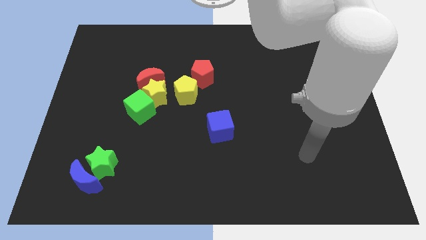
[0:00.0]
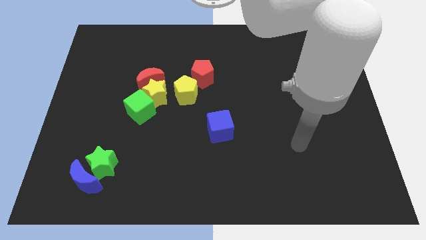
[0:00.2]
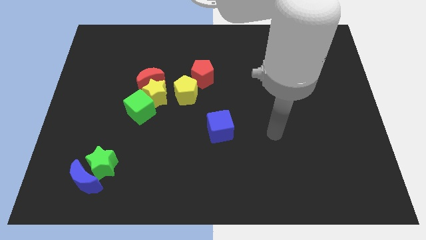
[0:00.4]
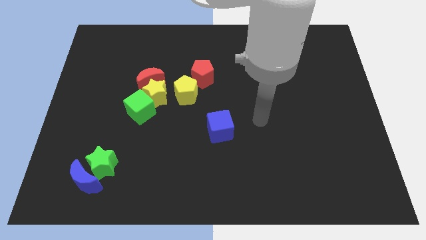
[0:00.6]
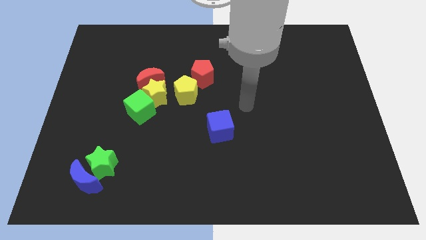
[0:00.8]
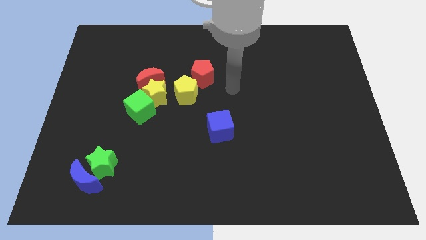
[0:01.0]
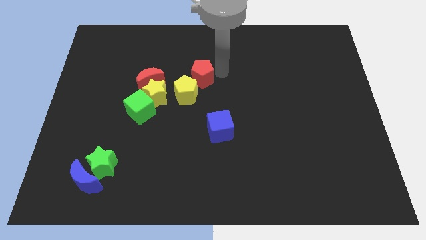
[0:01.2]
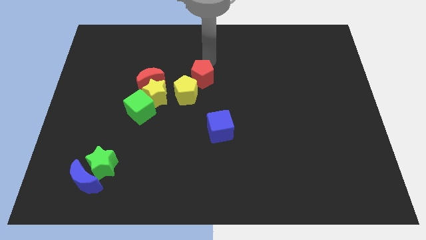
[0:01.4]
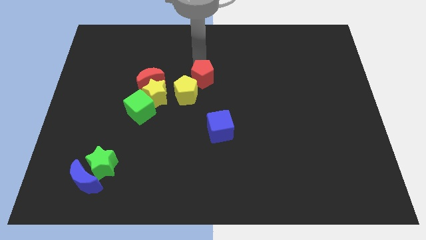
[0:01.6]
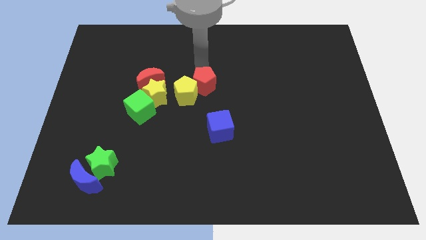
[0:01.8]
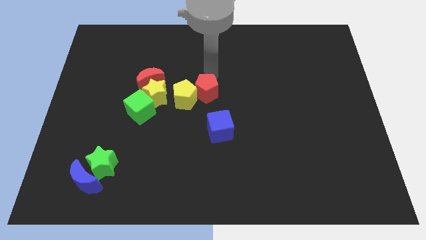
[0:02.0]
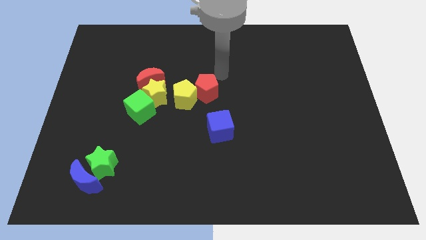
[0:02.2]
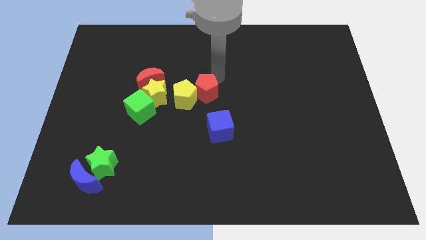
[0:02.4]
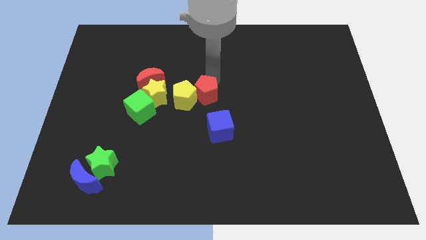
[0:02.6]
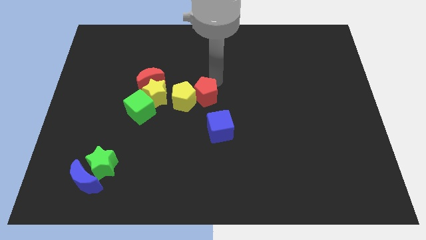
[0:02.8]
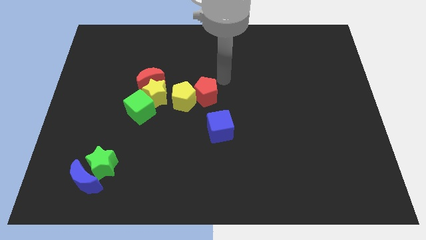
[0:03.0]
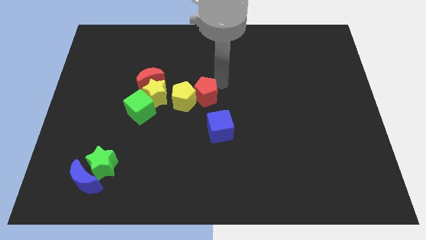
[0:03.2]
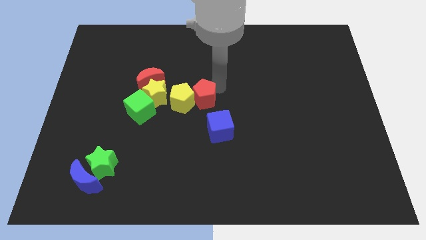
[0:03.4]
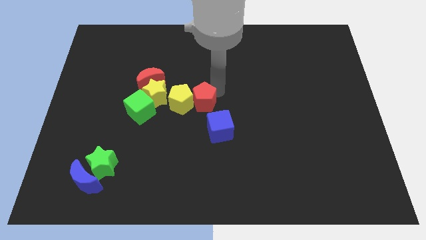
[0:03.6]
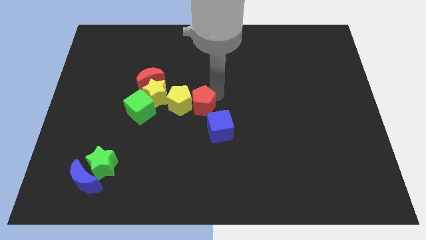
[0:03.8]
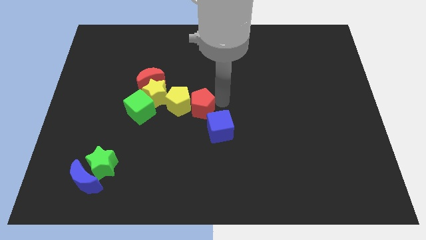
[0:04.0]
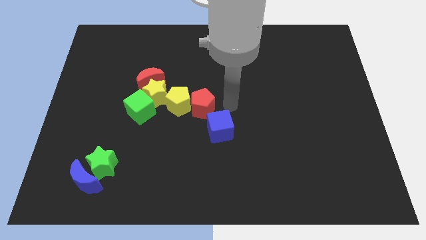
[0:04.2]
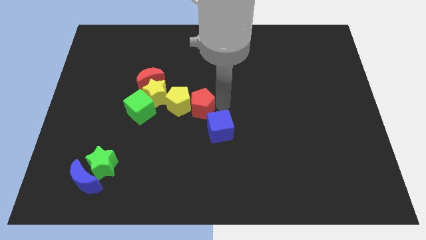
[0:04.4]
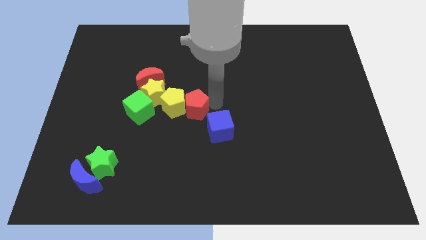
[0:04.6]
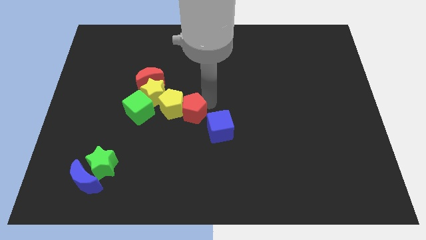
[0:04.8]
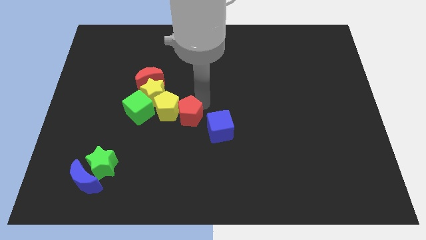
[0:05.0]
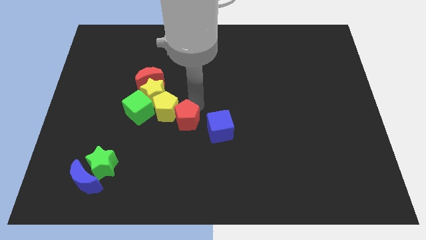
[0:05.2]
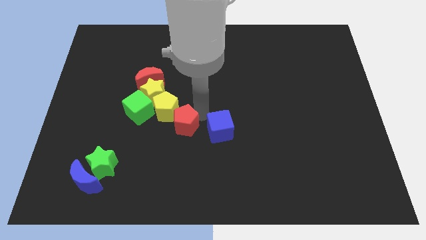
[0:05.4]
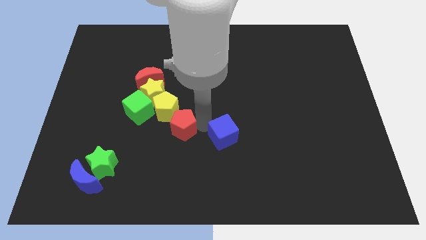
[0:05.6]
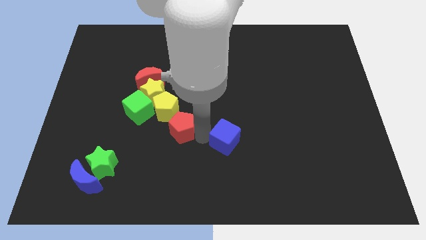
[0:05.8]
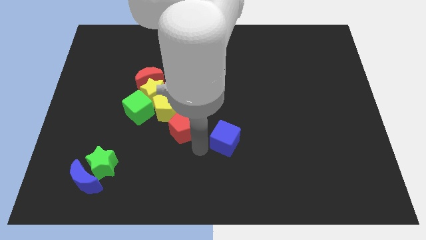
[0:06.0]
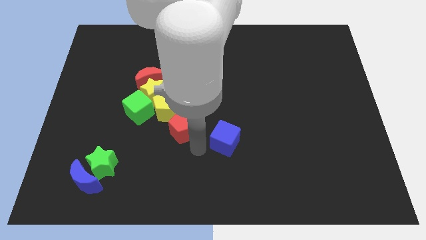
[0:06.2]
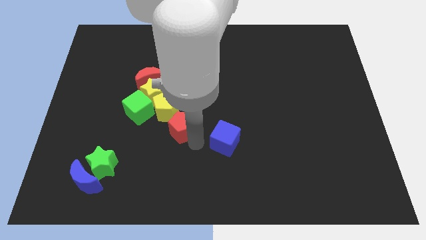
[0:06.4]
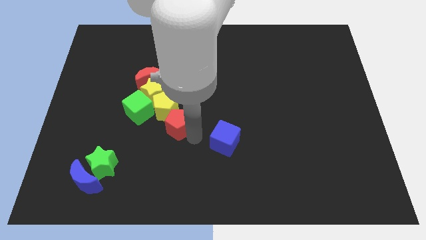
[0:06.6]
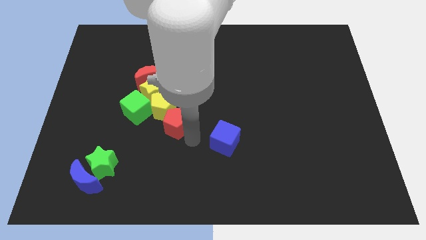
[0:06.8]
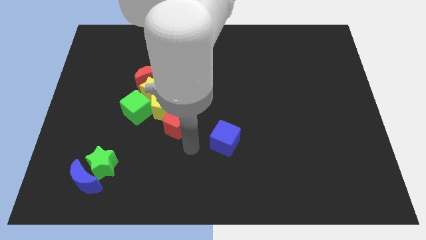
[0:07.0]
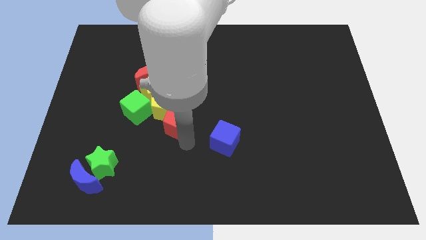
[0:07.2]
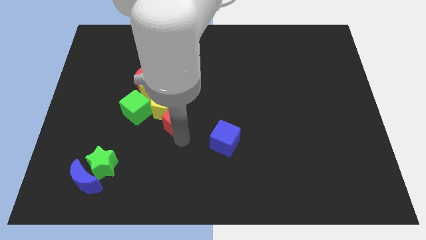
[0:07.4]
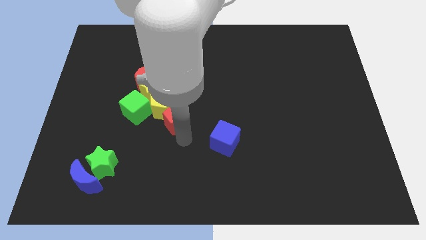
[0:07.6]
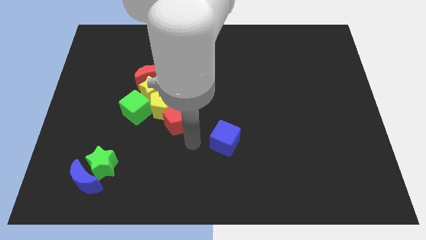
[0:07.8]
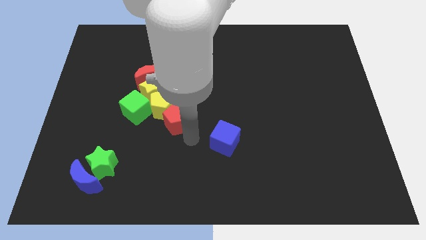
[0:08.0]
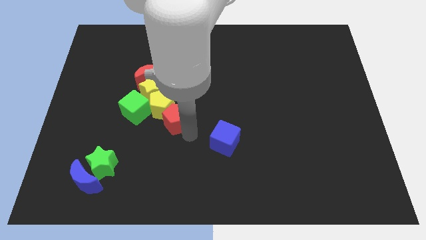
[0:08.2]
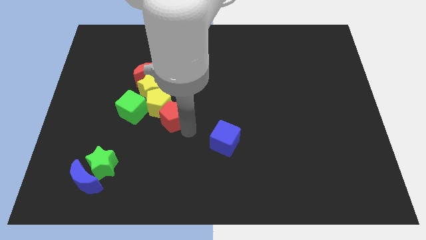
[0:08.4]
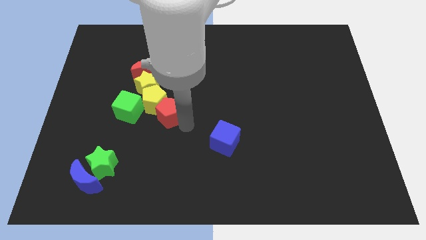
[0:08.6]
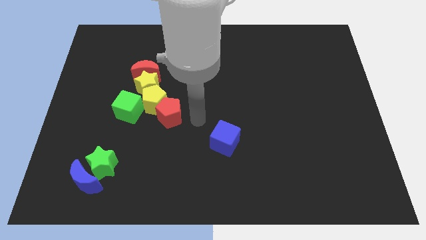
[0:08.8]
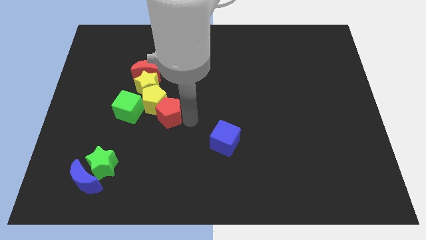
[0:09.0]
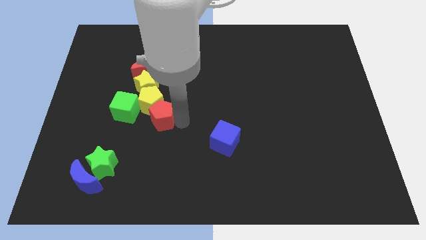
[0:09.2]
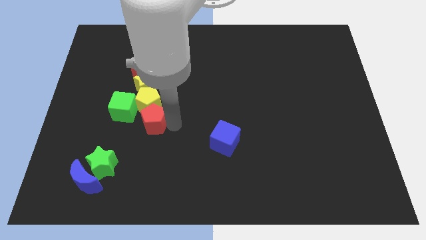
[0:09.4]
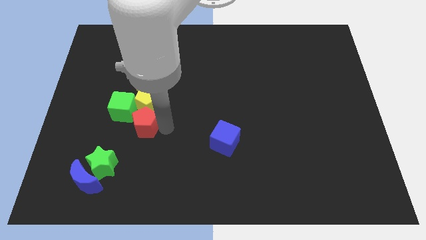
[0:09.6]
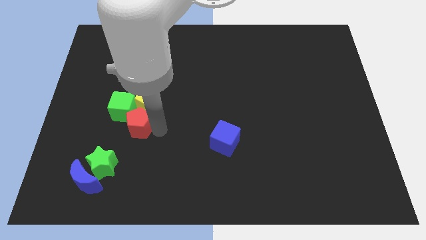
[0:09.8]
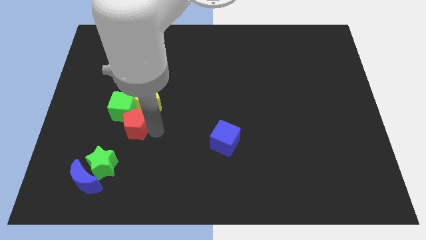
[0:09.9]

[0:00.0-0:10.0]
push the red pentagon next to the green cube

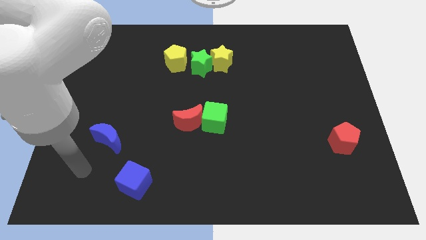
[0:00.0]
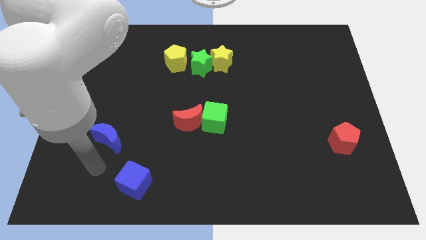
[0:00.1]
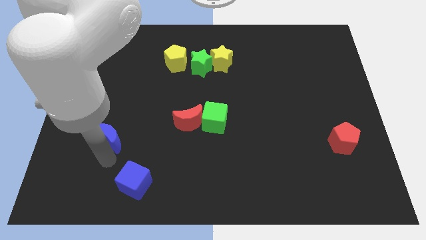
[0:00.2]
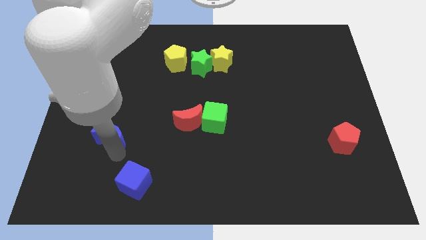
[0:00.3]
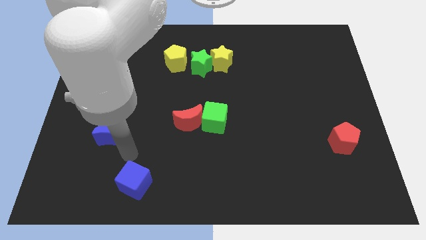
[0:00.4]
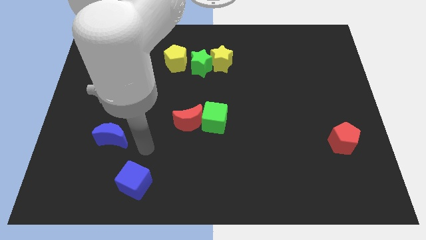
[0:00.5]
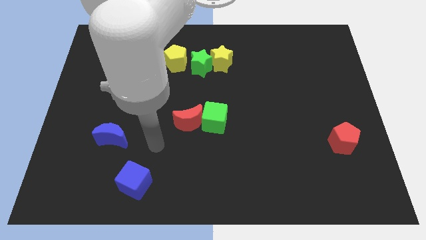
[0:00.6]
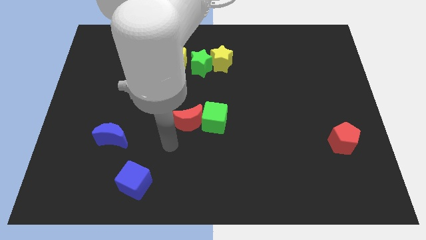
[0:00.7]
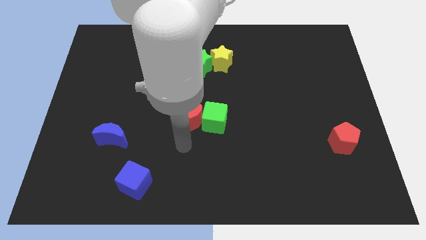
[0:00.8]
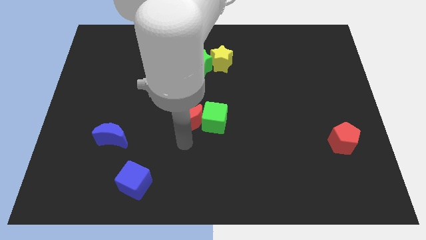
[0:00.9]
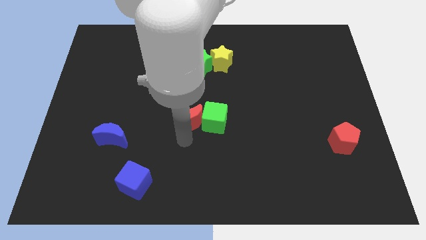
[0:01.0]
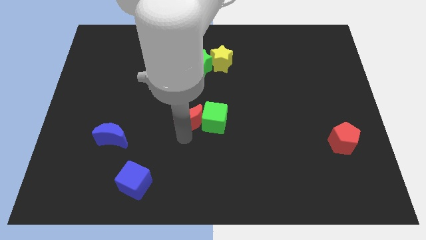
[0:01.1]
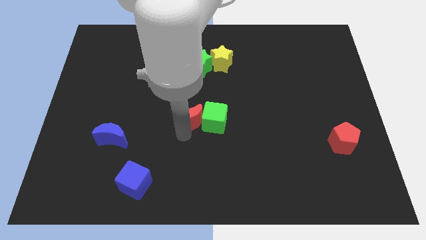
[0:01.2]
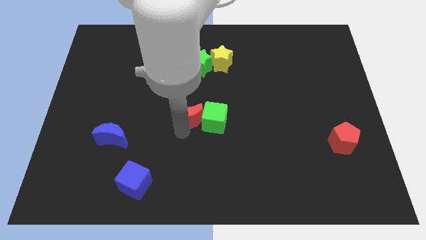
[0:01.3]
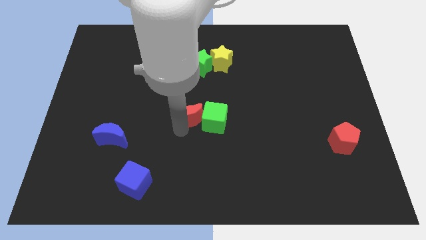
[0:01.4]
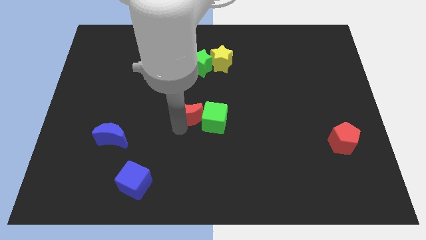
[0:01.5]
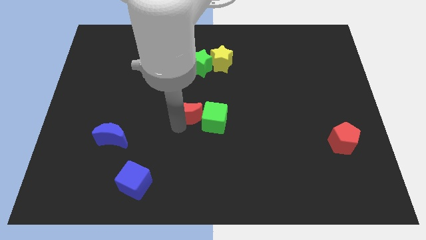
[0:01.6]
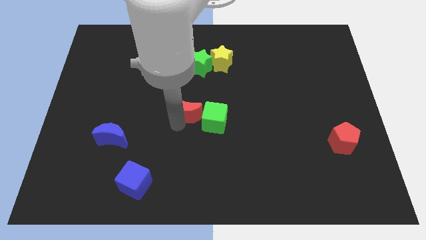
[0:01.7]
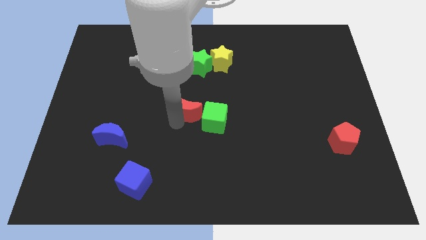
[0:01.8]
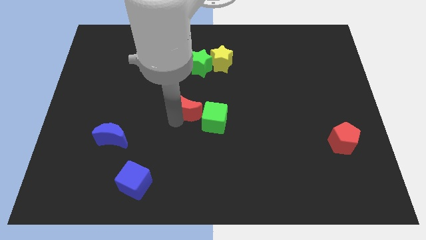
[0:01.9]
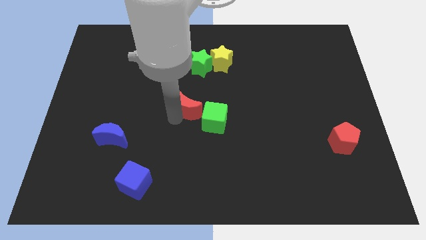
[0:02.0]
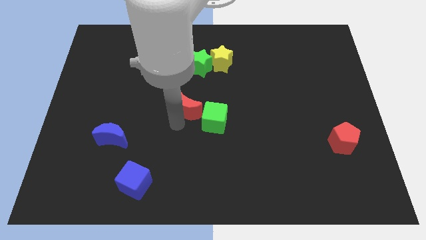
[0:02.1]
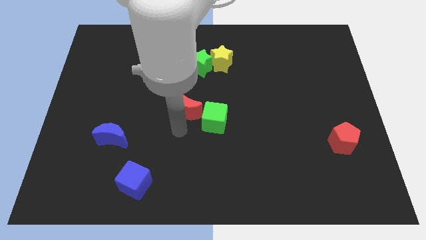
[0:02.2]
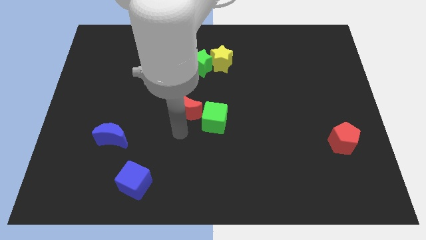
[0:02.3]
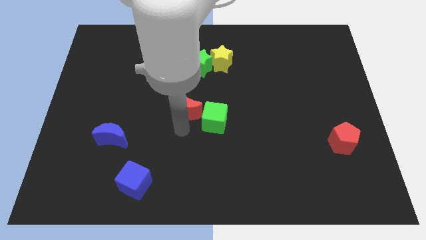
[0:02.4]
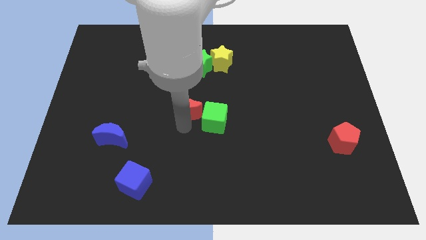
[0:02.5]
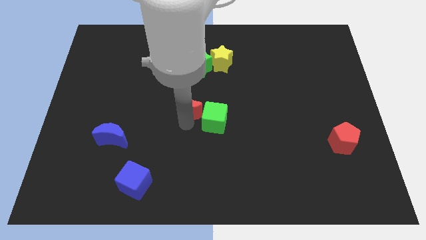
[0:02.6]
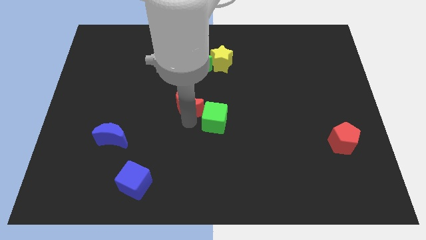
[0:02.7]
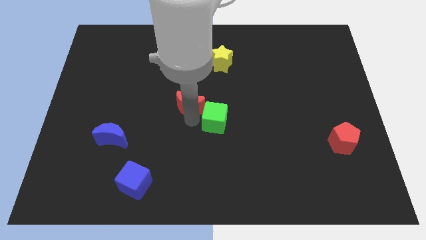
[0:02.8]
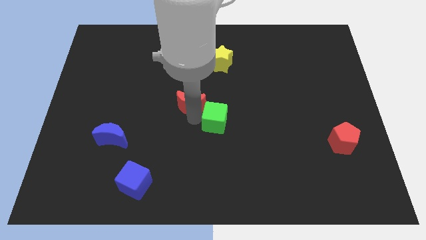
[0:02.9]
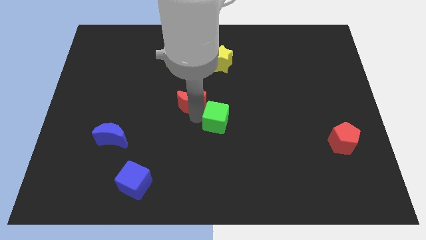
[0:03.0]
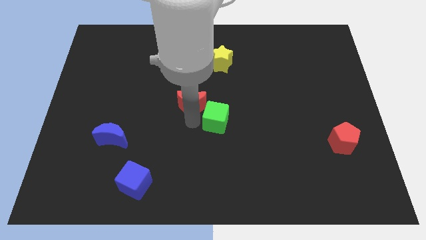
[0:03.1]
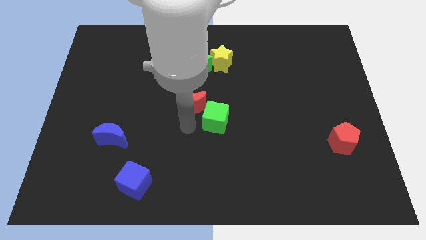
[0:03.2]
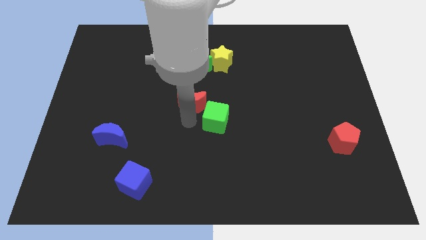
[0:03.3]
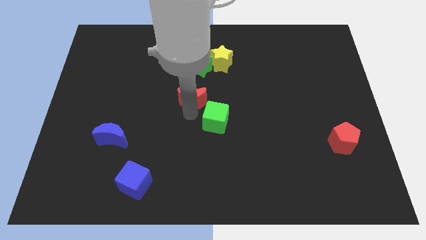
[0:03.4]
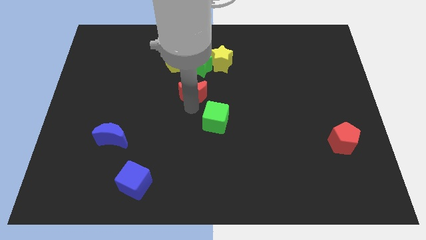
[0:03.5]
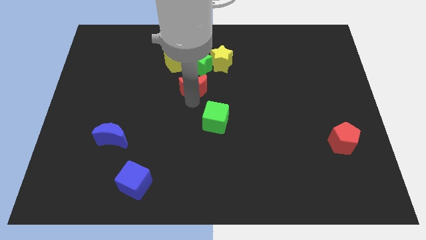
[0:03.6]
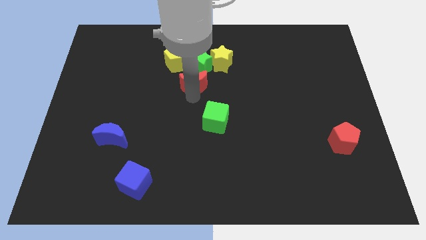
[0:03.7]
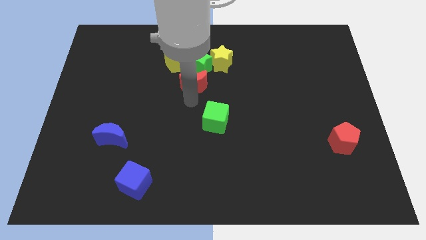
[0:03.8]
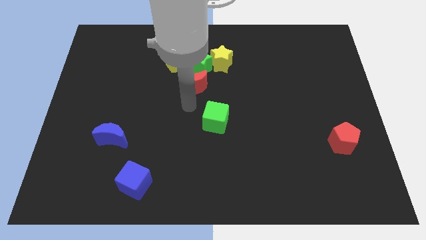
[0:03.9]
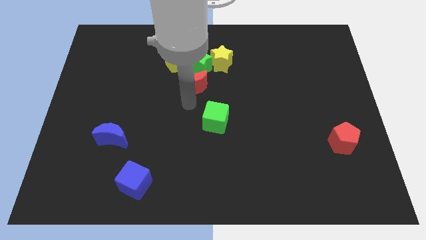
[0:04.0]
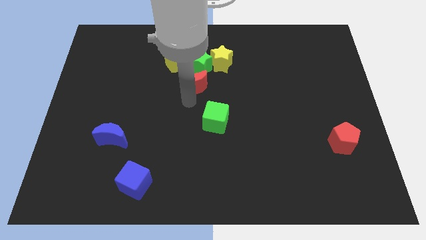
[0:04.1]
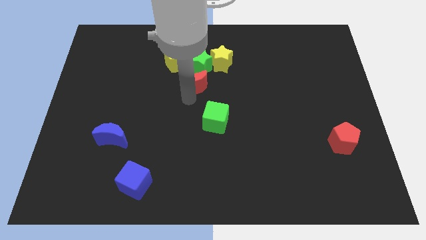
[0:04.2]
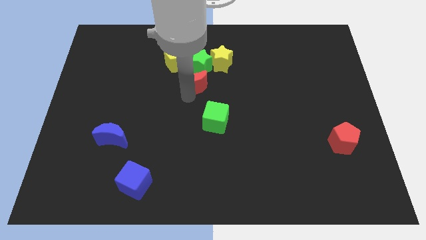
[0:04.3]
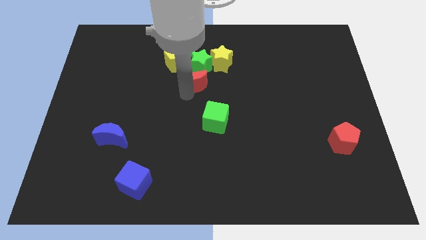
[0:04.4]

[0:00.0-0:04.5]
push the red moon towards the green star
